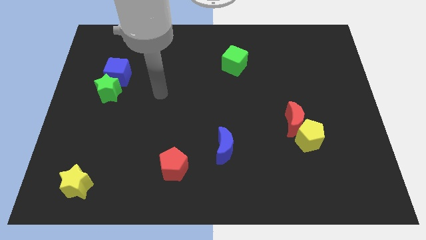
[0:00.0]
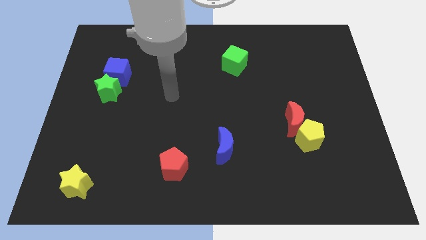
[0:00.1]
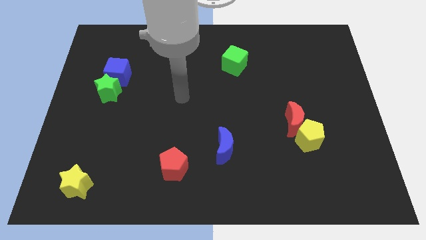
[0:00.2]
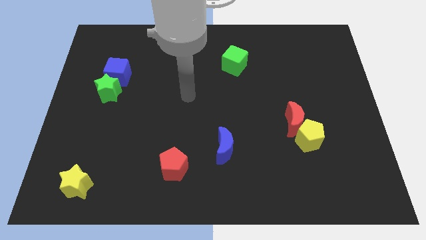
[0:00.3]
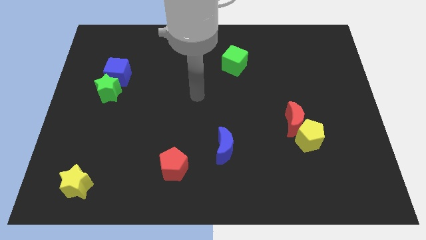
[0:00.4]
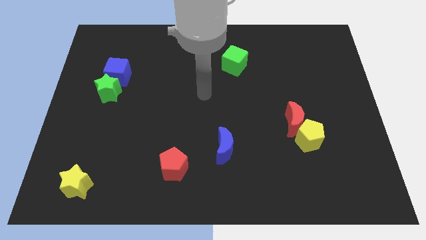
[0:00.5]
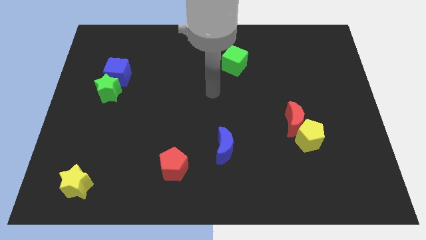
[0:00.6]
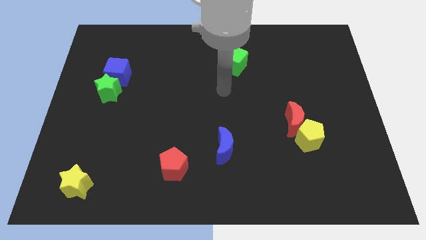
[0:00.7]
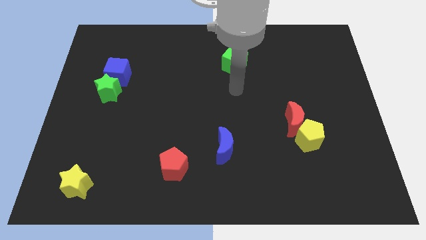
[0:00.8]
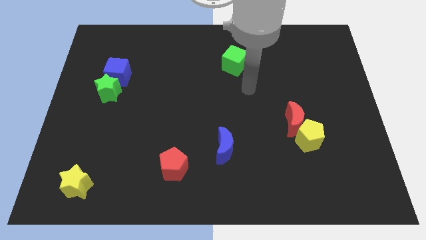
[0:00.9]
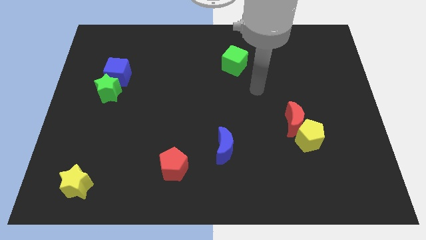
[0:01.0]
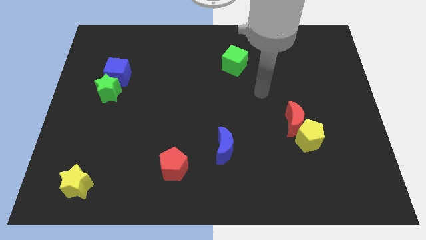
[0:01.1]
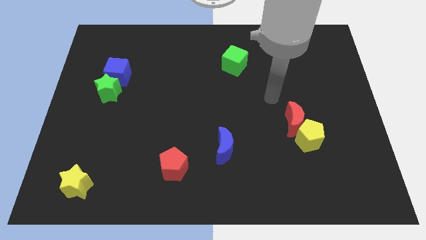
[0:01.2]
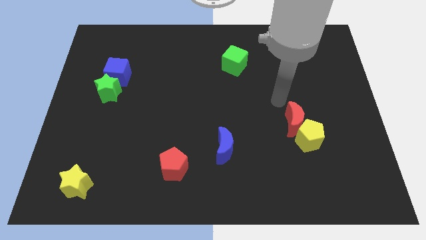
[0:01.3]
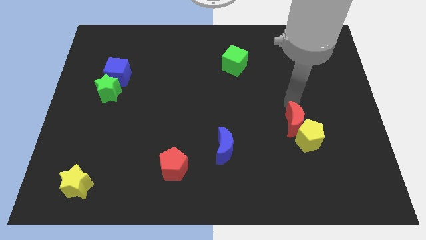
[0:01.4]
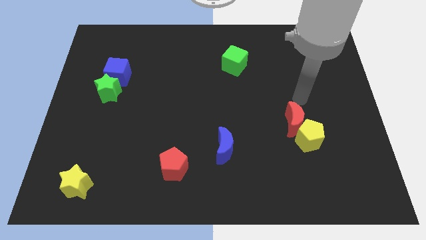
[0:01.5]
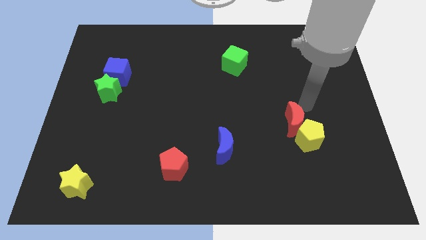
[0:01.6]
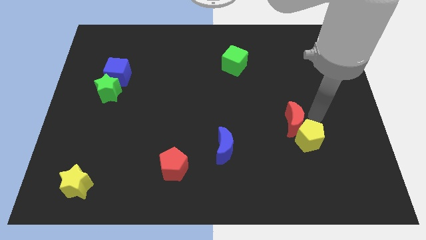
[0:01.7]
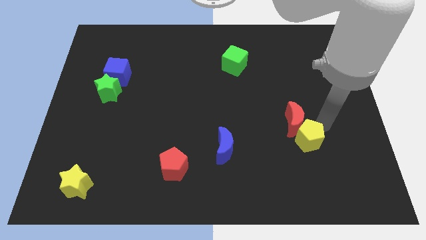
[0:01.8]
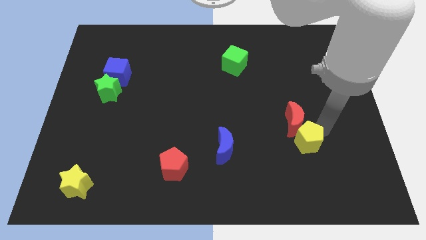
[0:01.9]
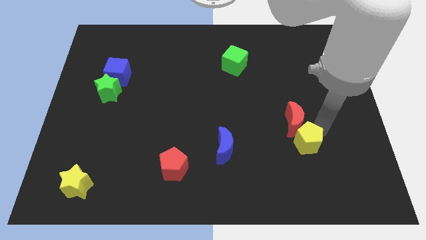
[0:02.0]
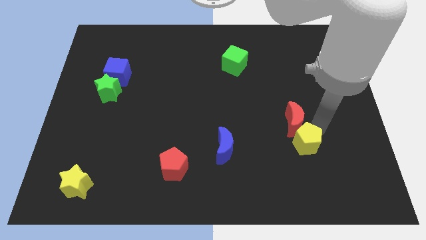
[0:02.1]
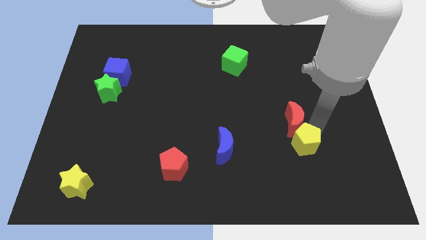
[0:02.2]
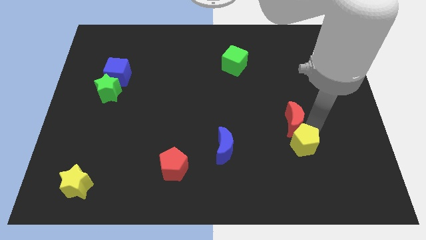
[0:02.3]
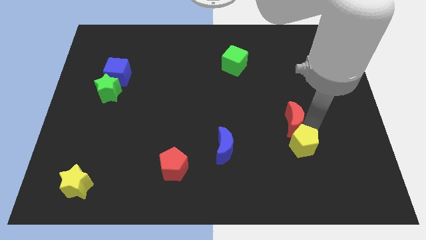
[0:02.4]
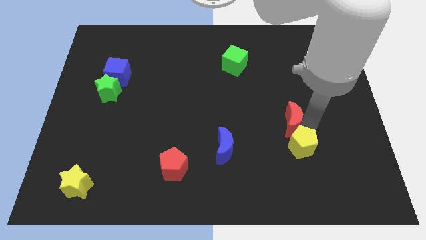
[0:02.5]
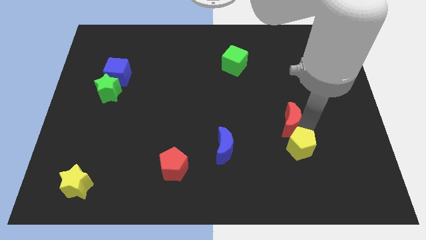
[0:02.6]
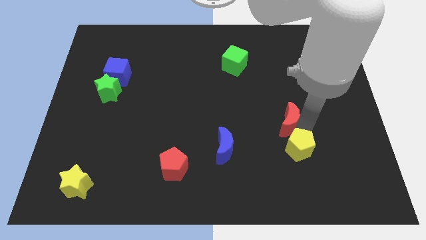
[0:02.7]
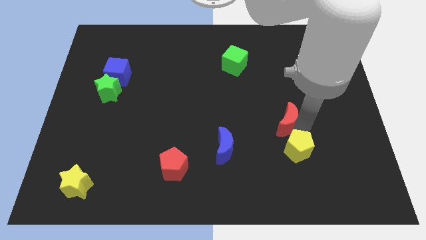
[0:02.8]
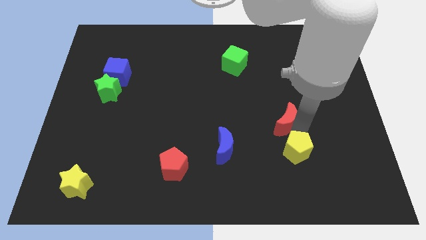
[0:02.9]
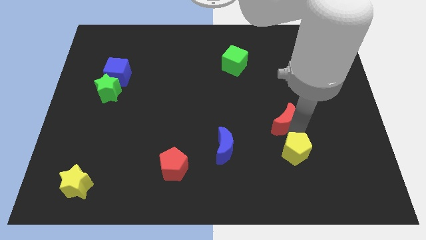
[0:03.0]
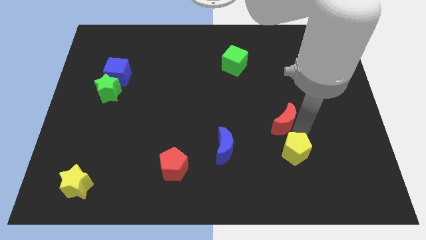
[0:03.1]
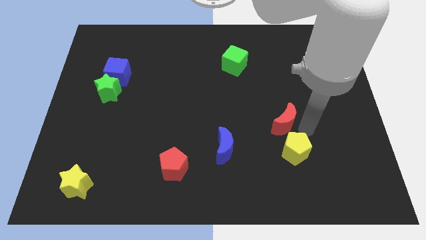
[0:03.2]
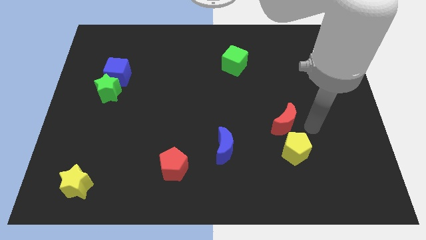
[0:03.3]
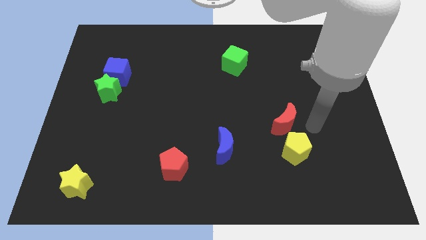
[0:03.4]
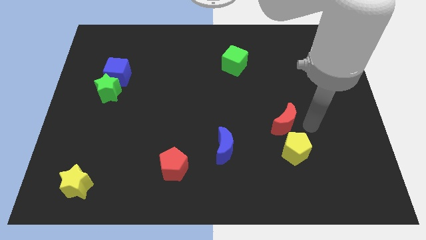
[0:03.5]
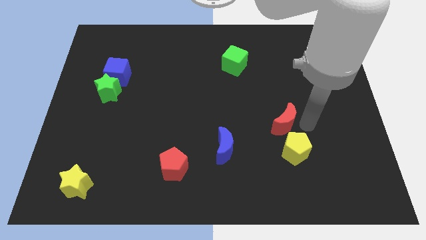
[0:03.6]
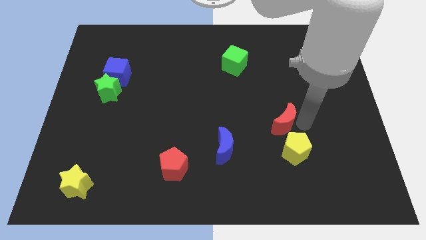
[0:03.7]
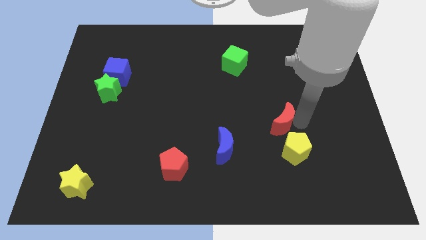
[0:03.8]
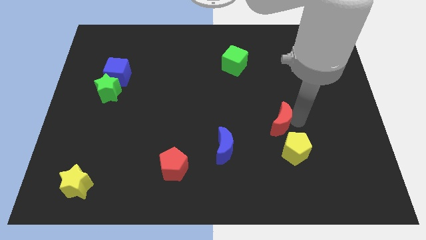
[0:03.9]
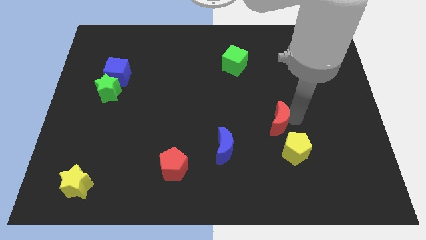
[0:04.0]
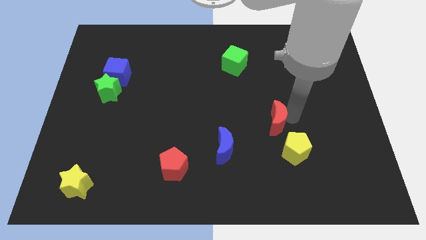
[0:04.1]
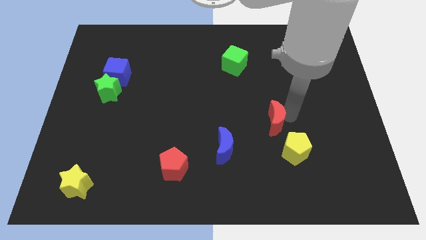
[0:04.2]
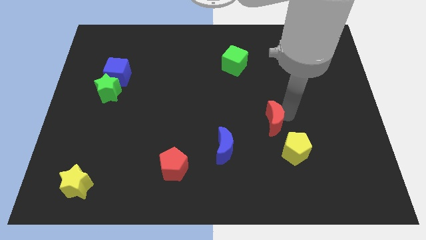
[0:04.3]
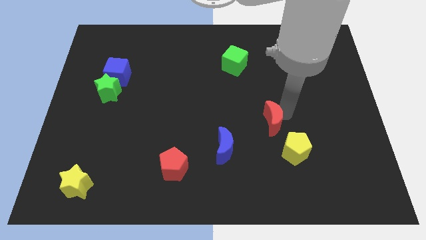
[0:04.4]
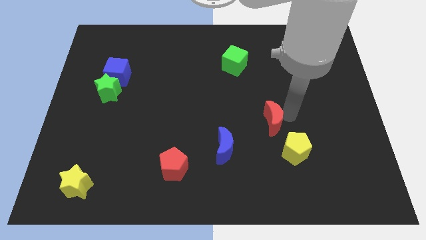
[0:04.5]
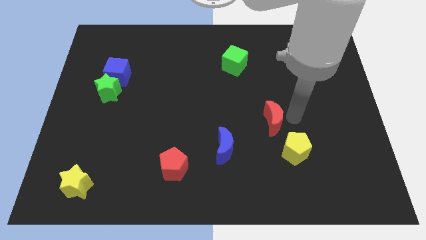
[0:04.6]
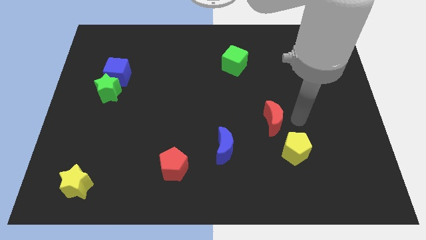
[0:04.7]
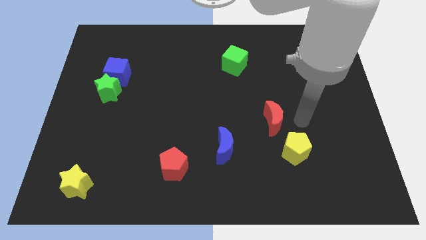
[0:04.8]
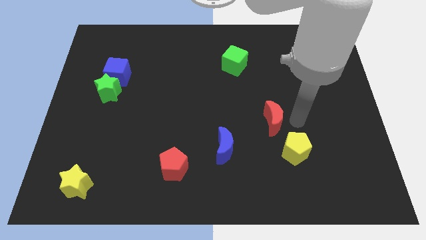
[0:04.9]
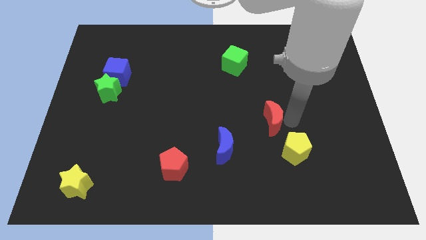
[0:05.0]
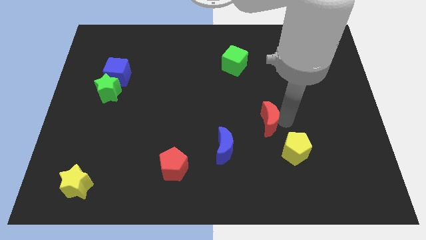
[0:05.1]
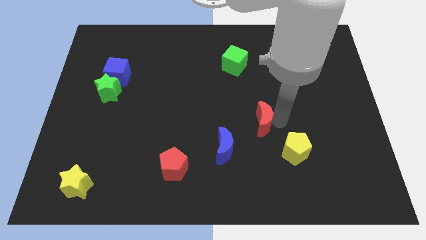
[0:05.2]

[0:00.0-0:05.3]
push the red moon to the left a bit

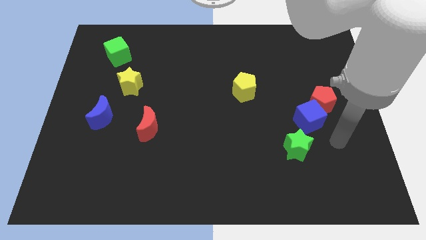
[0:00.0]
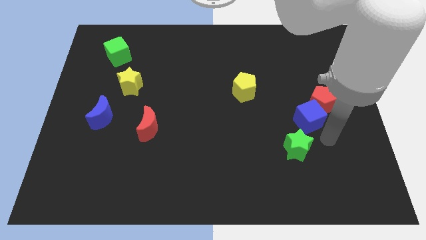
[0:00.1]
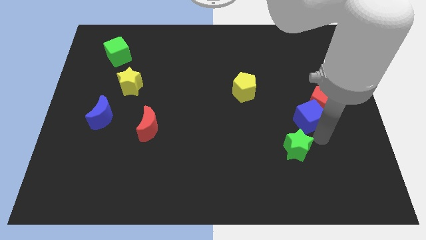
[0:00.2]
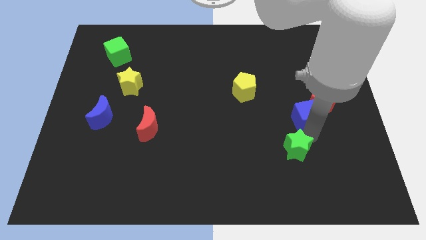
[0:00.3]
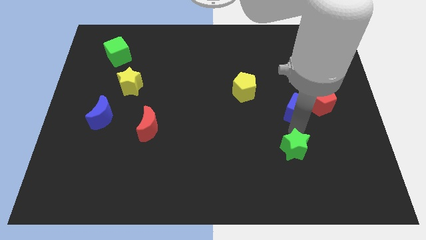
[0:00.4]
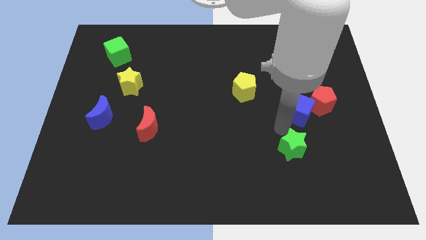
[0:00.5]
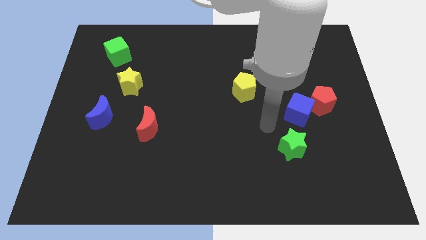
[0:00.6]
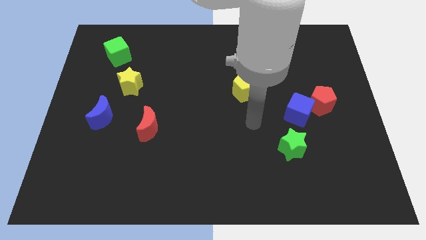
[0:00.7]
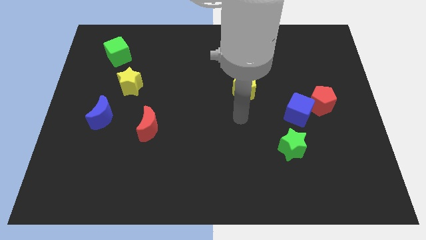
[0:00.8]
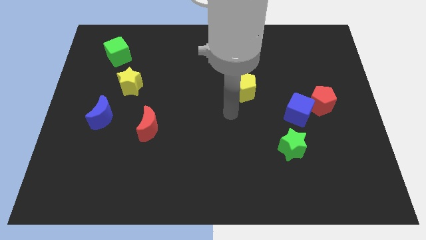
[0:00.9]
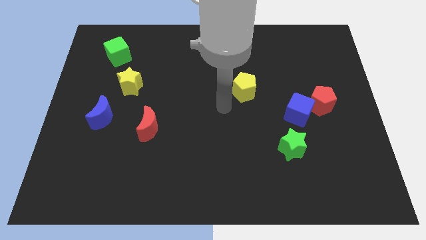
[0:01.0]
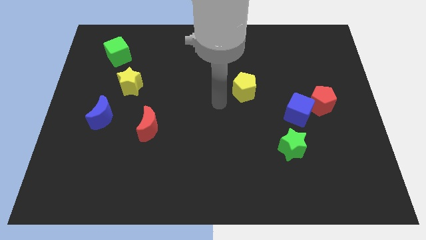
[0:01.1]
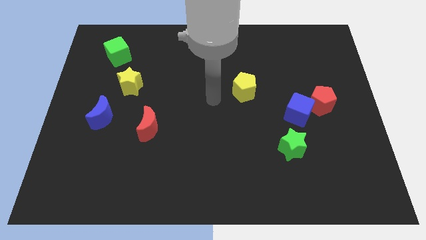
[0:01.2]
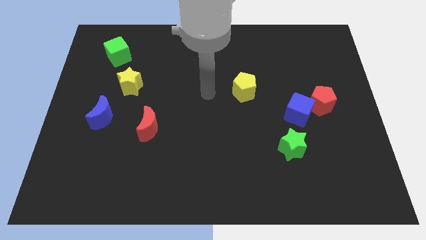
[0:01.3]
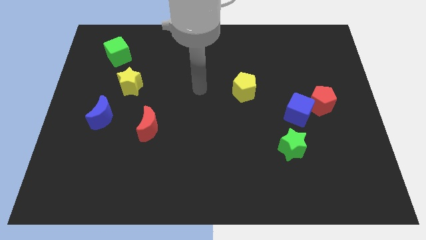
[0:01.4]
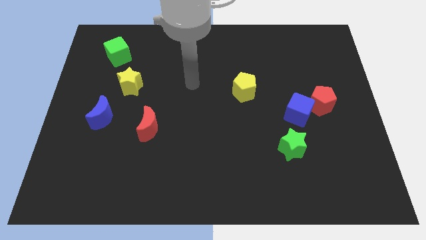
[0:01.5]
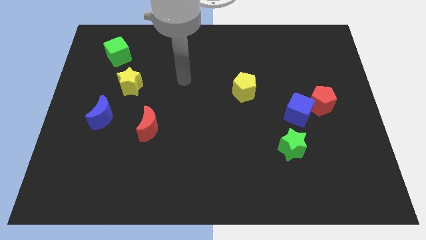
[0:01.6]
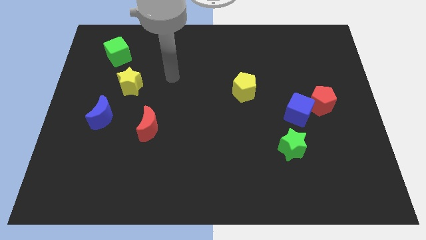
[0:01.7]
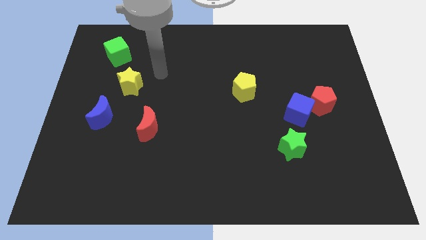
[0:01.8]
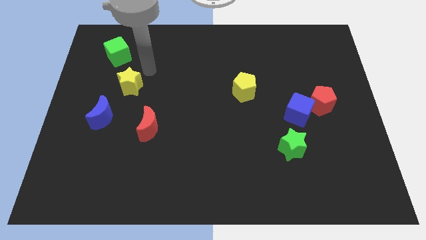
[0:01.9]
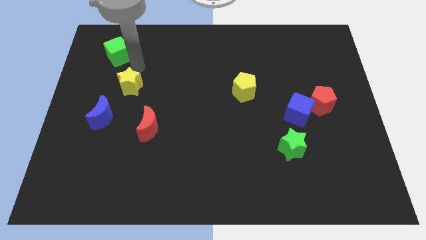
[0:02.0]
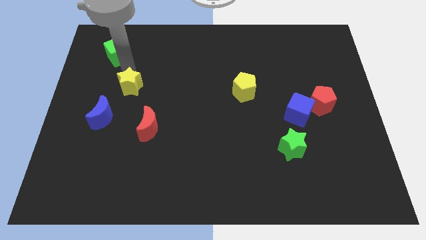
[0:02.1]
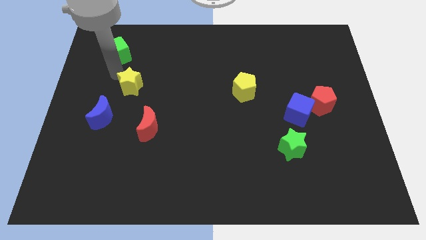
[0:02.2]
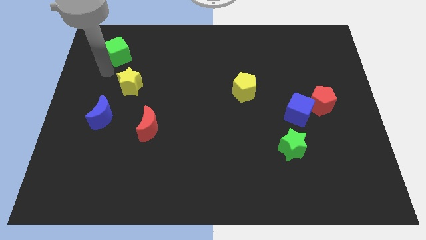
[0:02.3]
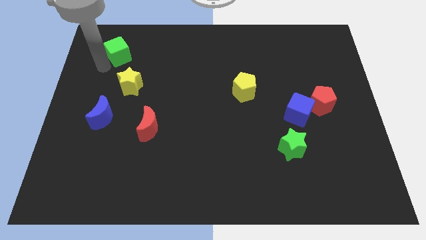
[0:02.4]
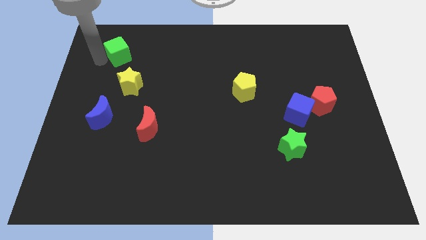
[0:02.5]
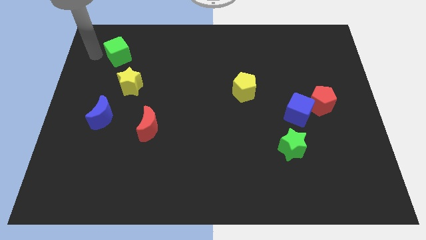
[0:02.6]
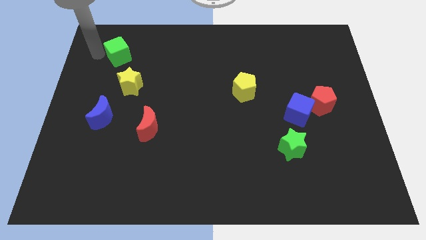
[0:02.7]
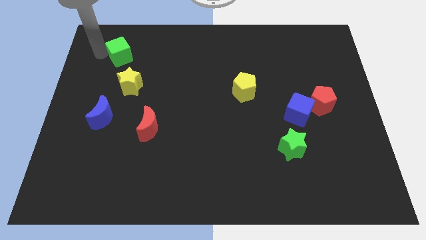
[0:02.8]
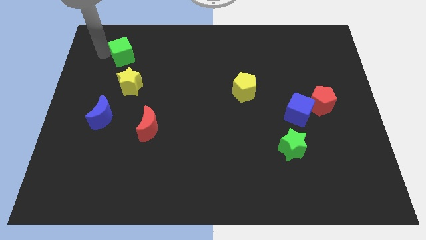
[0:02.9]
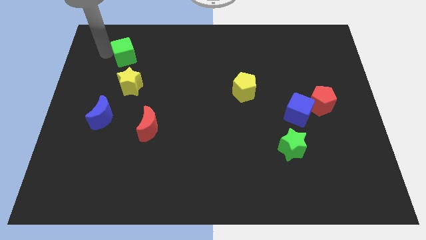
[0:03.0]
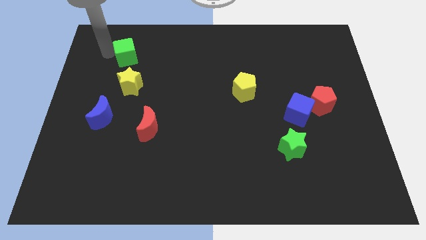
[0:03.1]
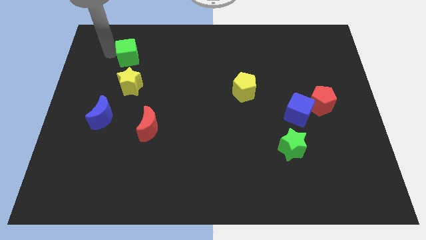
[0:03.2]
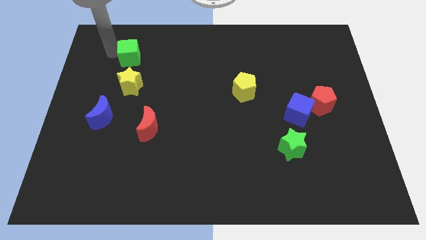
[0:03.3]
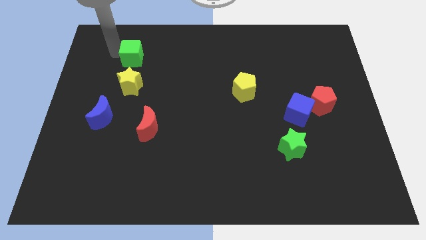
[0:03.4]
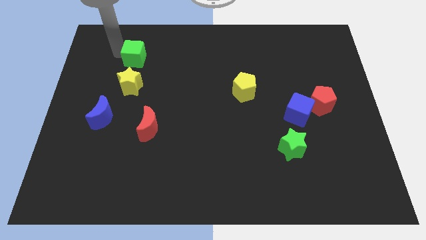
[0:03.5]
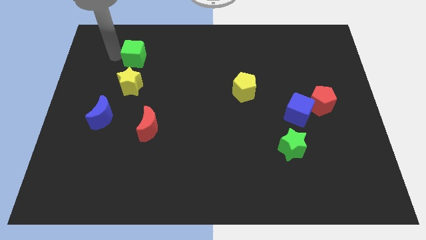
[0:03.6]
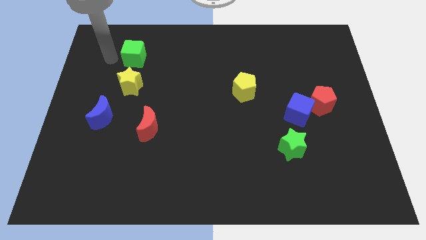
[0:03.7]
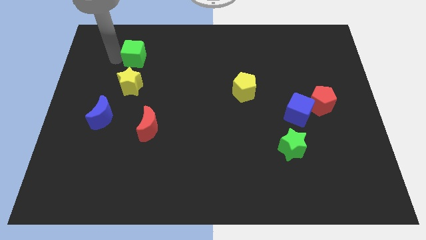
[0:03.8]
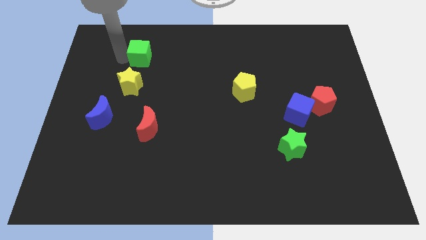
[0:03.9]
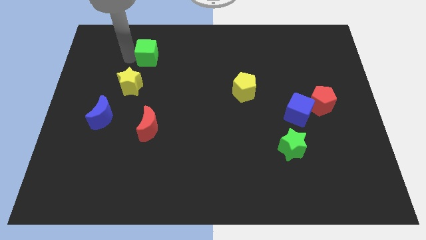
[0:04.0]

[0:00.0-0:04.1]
push the green cube a little bit right
